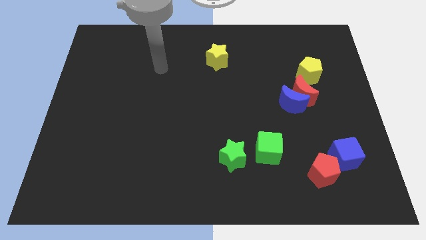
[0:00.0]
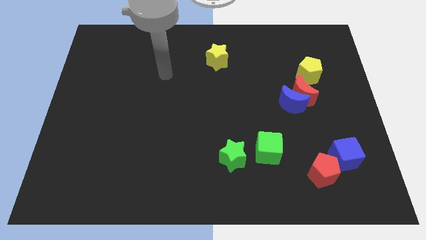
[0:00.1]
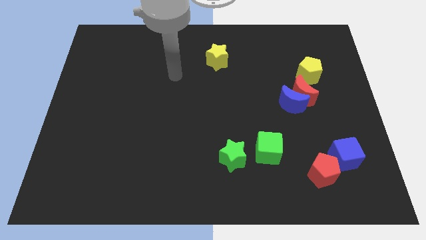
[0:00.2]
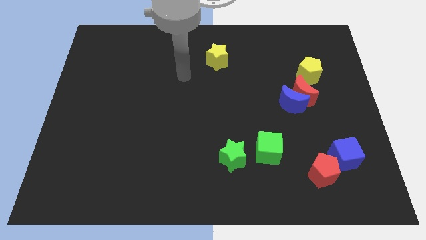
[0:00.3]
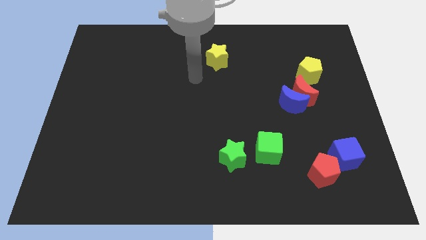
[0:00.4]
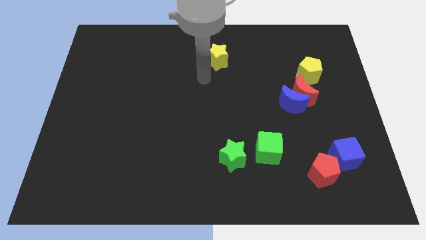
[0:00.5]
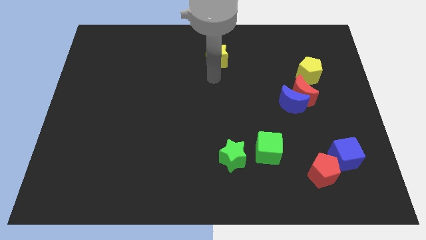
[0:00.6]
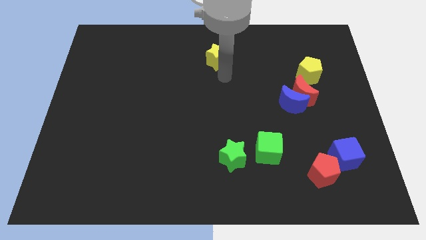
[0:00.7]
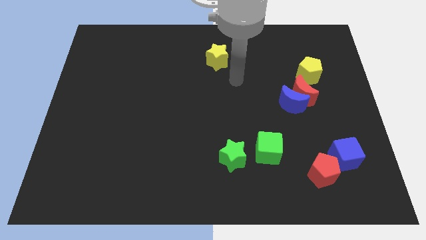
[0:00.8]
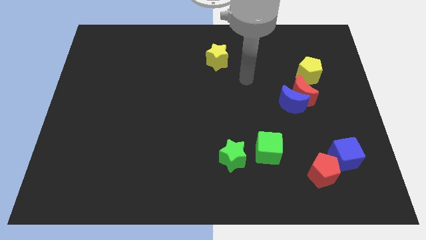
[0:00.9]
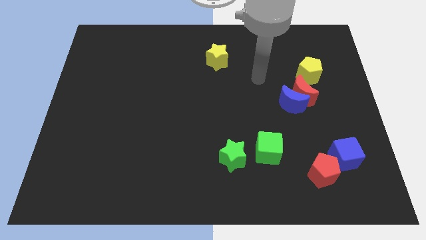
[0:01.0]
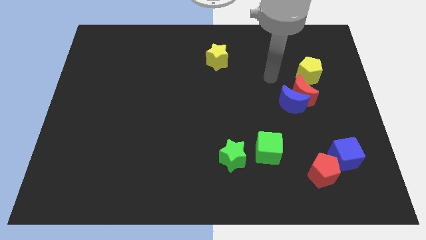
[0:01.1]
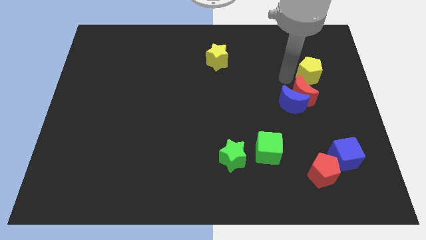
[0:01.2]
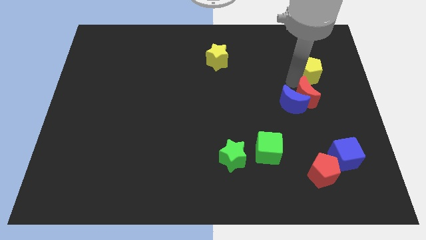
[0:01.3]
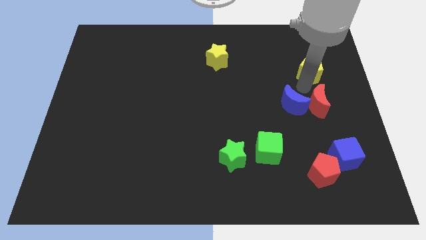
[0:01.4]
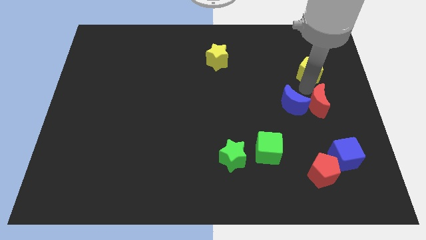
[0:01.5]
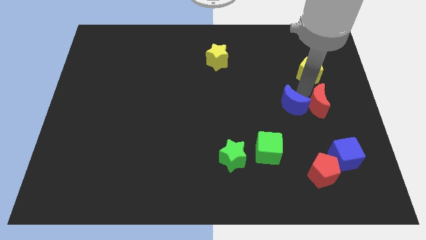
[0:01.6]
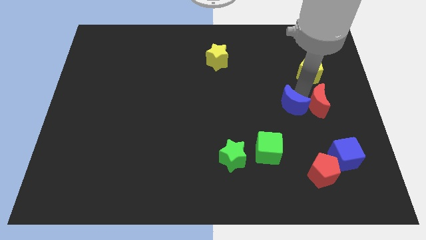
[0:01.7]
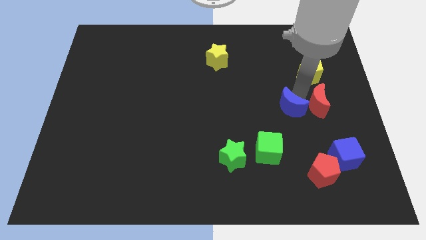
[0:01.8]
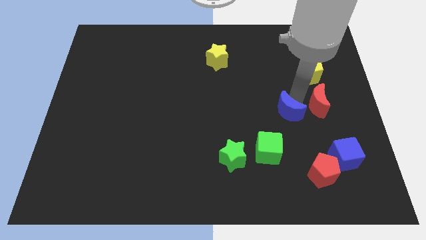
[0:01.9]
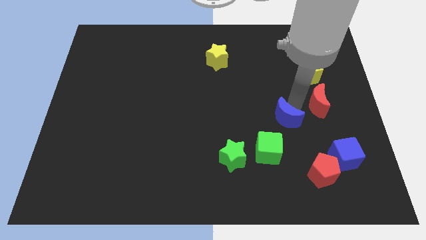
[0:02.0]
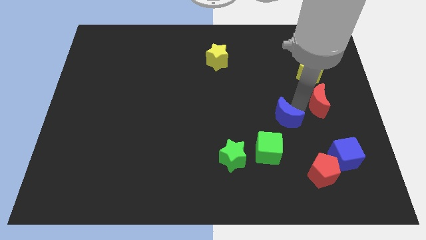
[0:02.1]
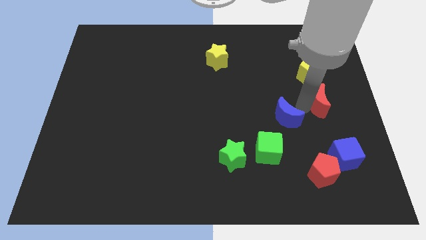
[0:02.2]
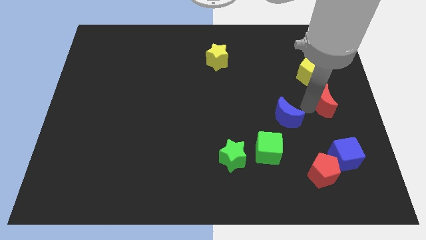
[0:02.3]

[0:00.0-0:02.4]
pull the blue moon apart from the red moon

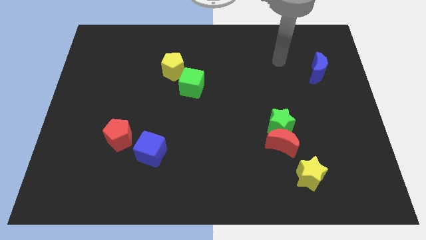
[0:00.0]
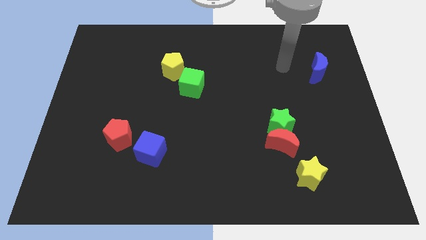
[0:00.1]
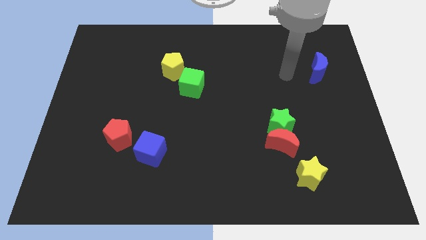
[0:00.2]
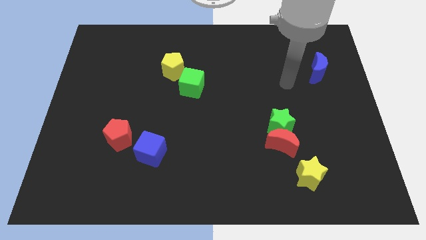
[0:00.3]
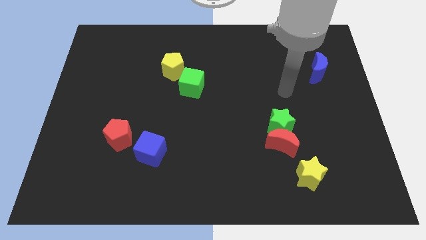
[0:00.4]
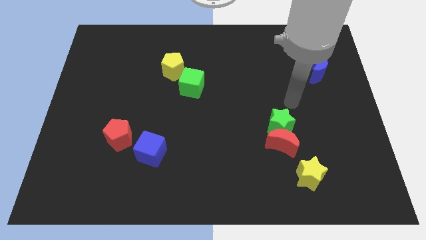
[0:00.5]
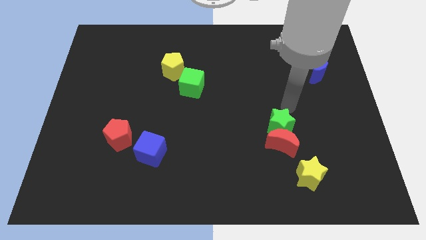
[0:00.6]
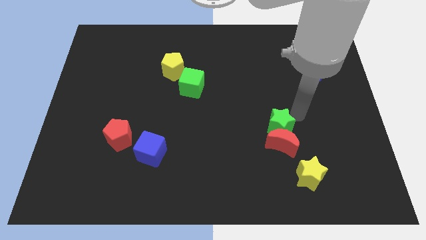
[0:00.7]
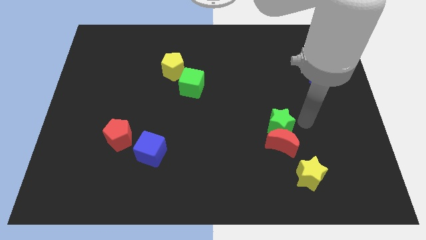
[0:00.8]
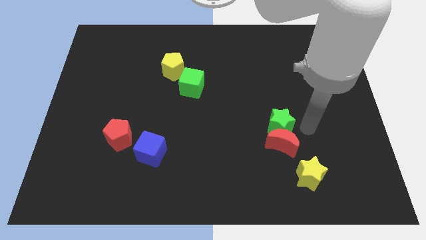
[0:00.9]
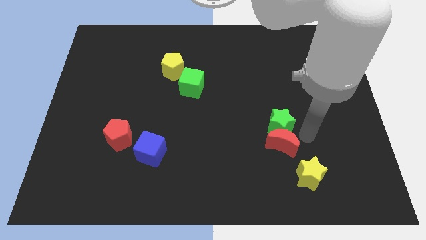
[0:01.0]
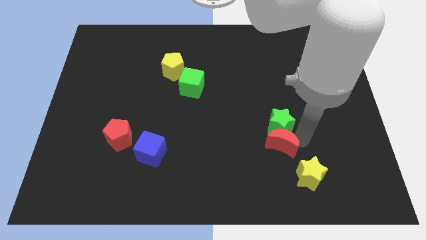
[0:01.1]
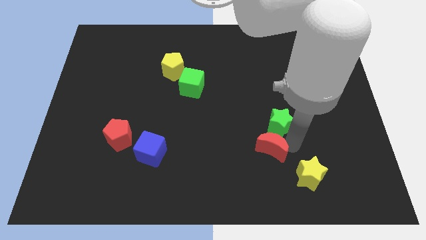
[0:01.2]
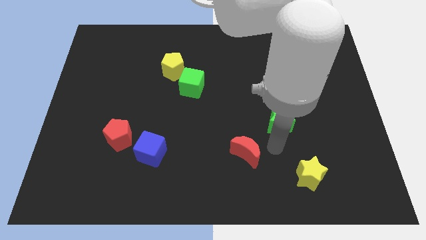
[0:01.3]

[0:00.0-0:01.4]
pull the green star apart from the red moon

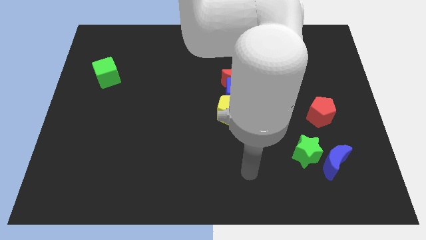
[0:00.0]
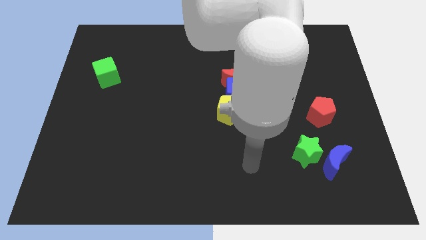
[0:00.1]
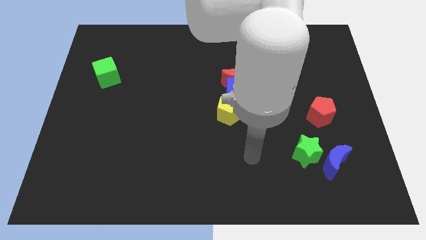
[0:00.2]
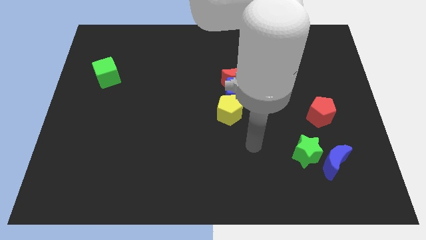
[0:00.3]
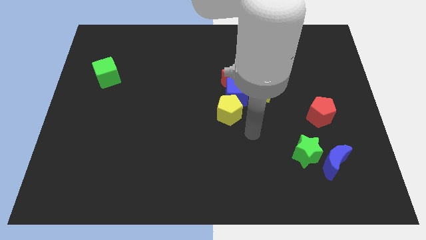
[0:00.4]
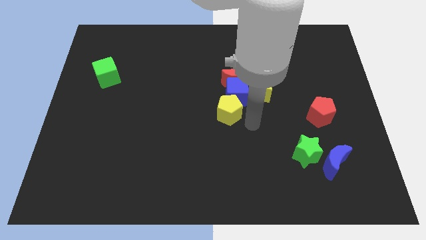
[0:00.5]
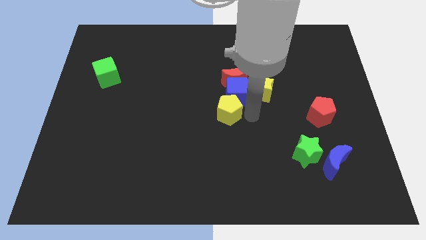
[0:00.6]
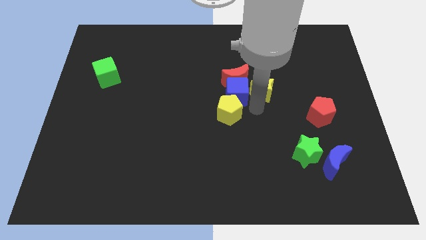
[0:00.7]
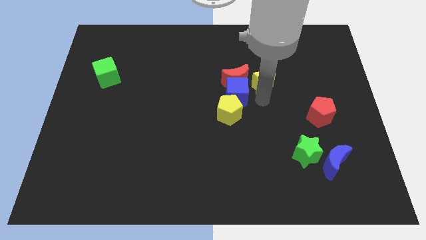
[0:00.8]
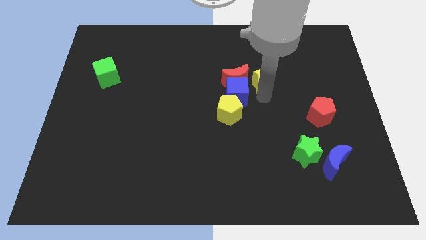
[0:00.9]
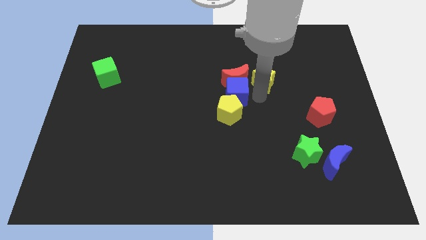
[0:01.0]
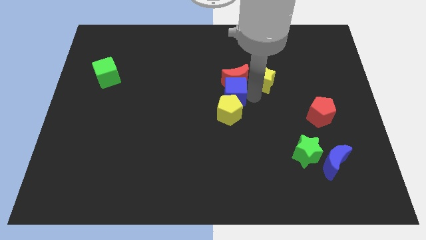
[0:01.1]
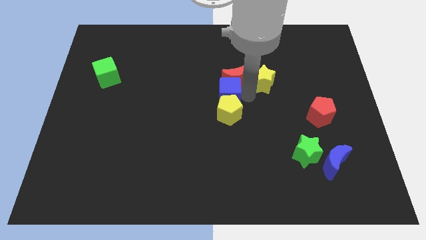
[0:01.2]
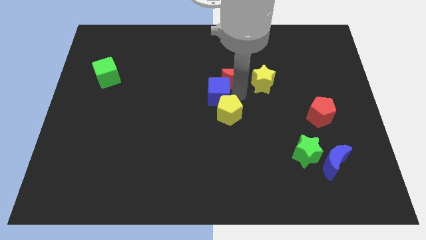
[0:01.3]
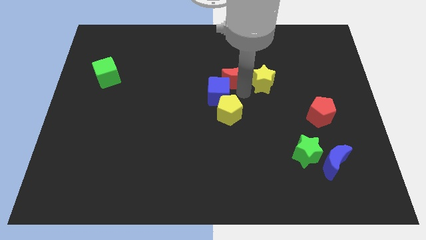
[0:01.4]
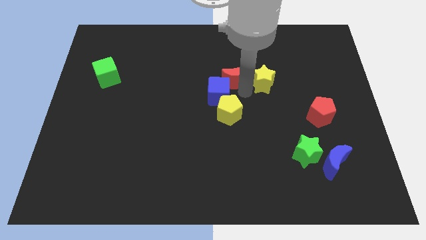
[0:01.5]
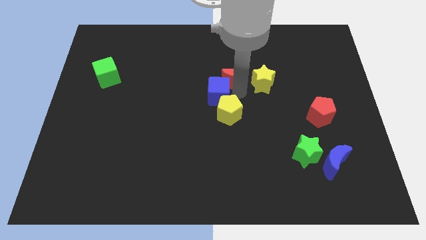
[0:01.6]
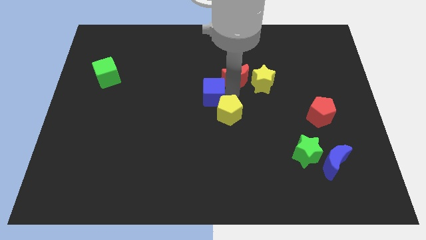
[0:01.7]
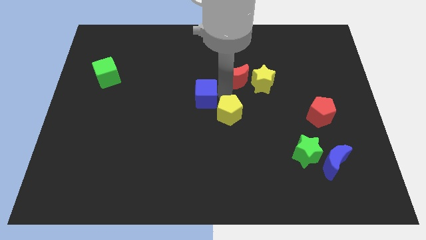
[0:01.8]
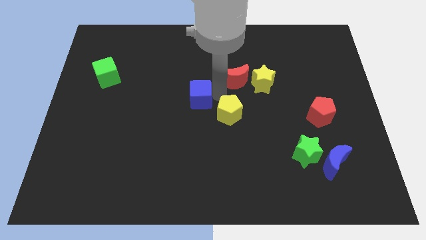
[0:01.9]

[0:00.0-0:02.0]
separate the blue cube from the red moon, yellow pentagon, and yellow star

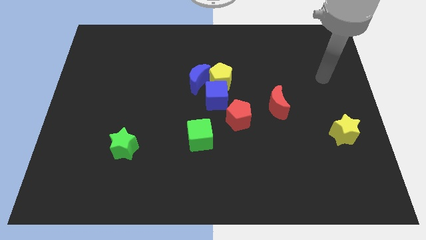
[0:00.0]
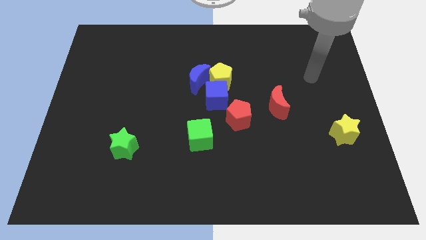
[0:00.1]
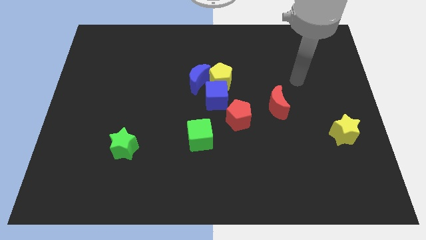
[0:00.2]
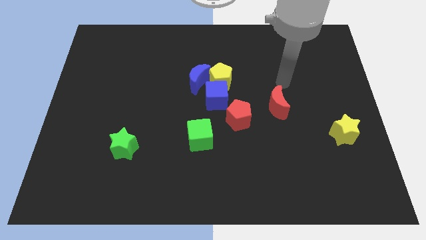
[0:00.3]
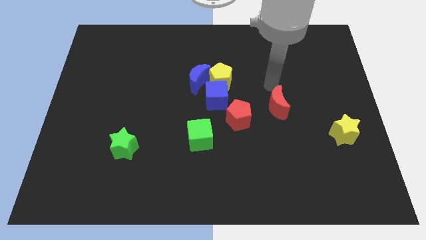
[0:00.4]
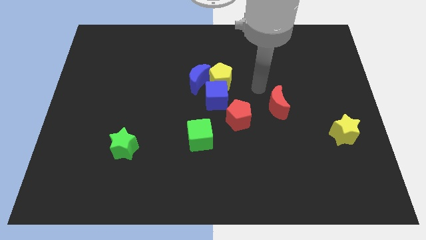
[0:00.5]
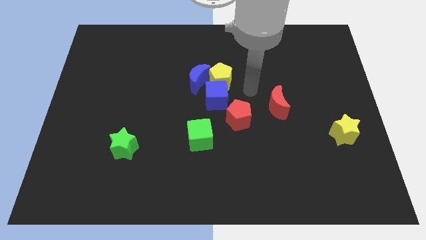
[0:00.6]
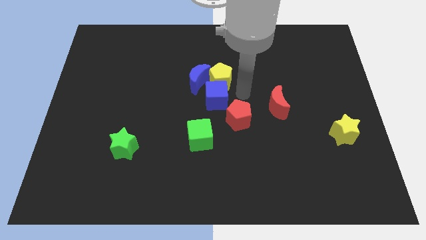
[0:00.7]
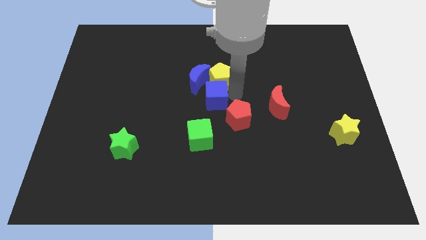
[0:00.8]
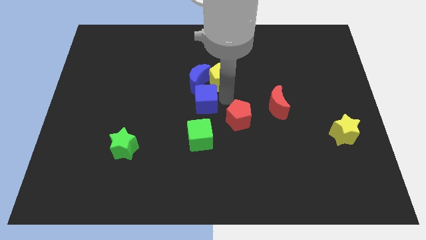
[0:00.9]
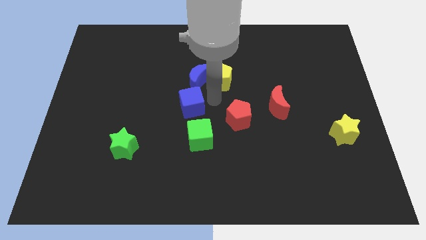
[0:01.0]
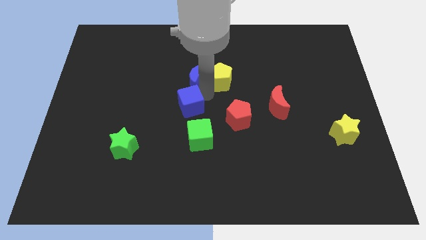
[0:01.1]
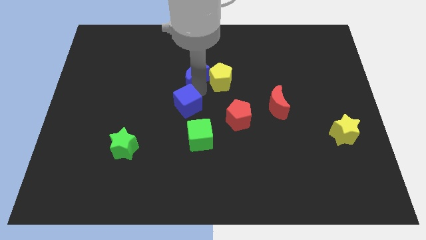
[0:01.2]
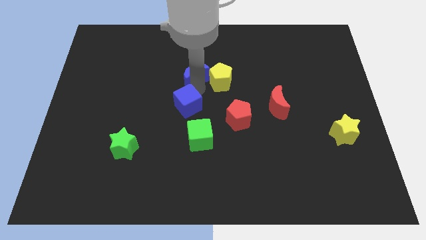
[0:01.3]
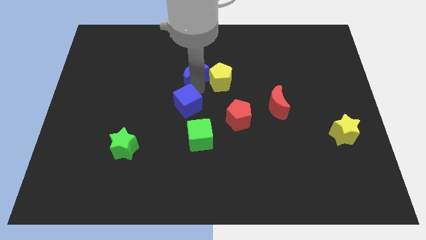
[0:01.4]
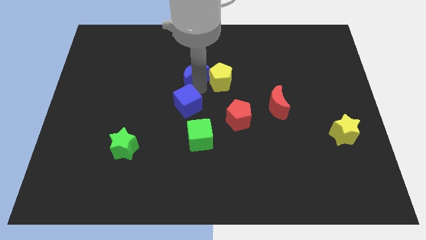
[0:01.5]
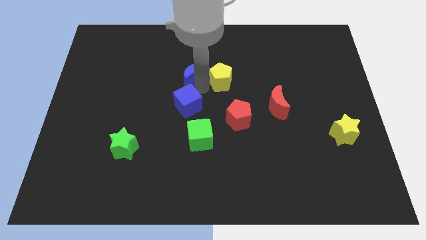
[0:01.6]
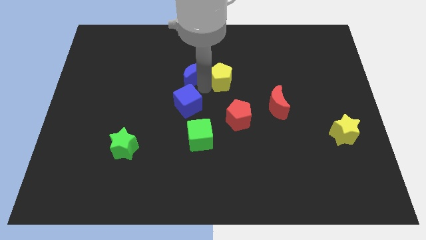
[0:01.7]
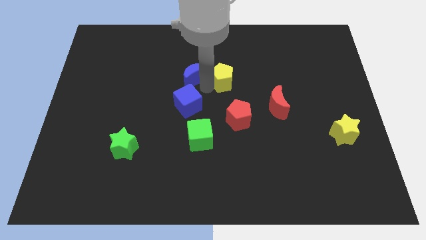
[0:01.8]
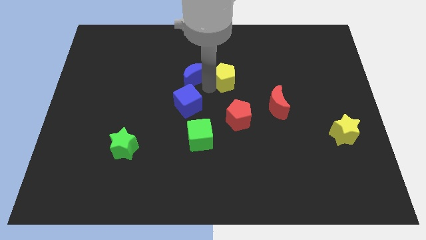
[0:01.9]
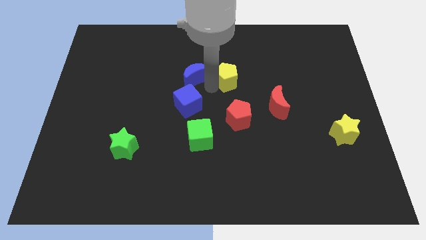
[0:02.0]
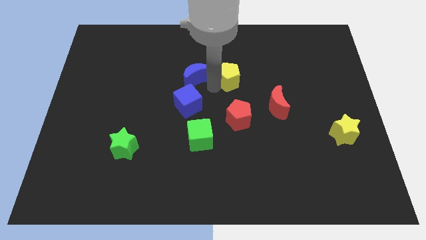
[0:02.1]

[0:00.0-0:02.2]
separate the yellow pentagon from the blue moon and blue cube

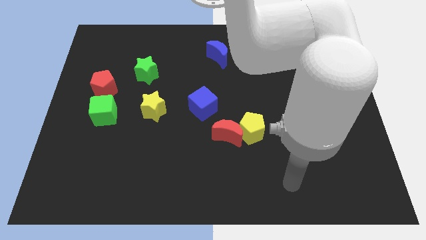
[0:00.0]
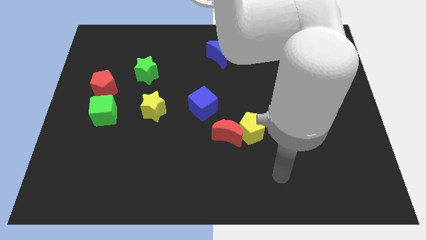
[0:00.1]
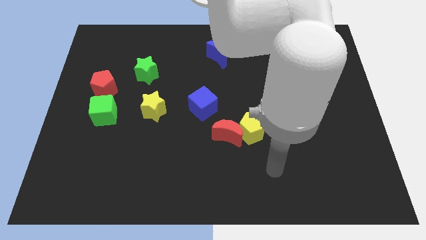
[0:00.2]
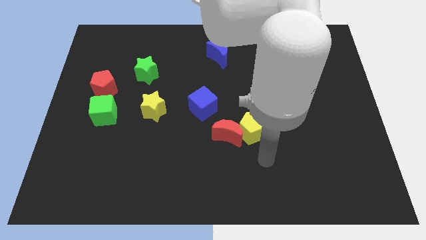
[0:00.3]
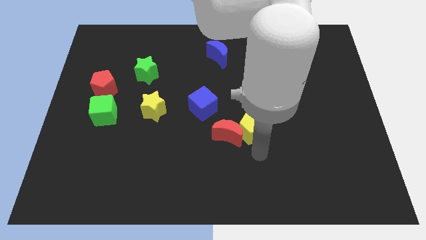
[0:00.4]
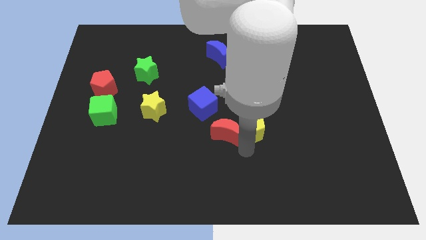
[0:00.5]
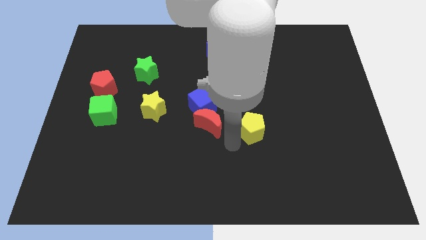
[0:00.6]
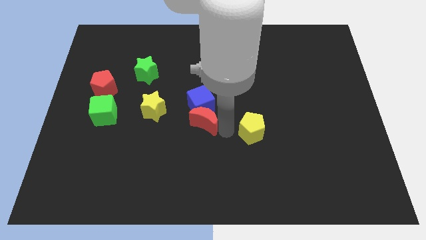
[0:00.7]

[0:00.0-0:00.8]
pull the yellow pentagon apart from the red moon

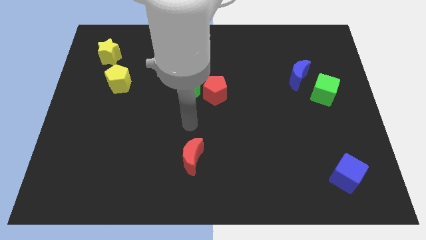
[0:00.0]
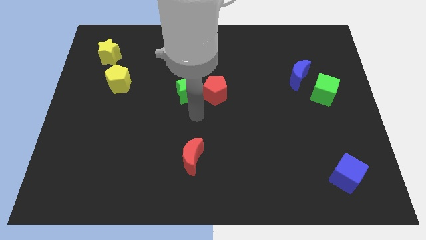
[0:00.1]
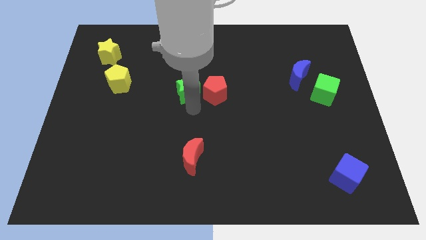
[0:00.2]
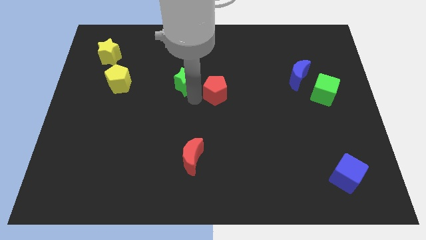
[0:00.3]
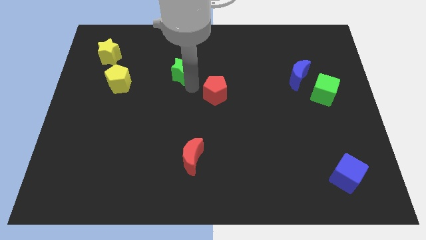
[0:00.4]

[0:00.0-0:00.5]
pull the red pentagon apart from the green star

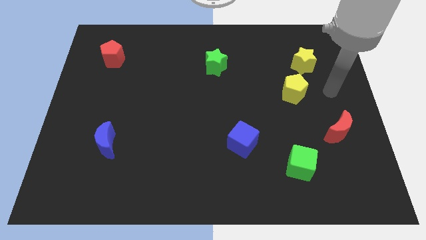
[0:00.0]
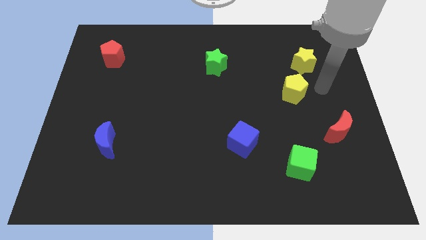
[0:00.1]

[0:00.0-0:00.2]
separate the yellow star from the yellow pentagon
